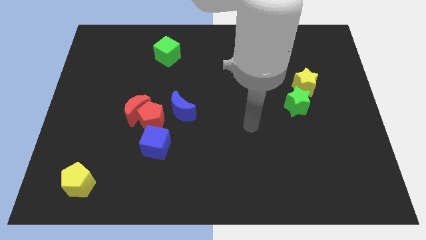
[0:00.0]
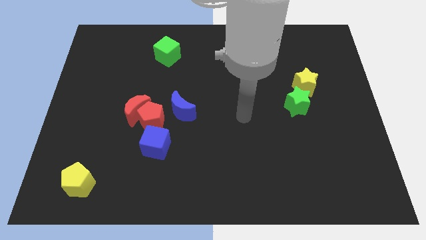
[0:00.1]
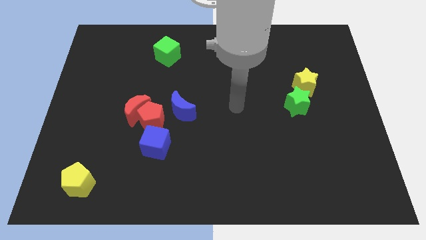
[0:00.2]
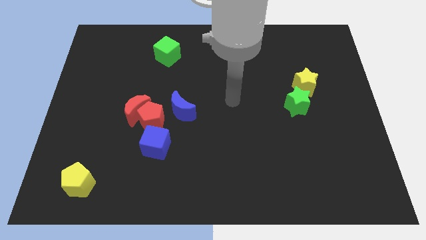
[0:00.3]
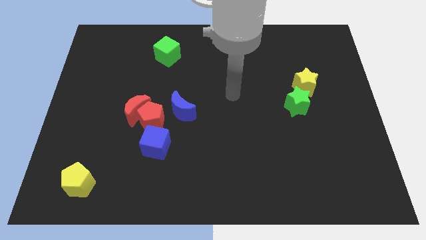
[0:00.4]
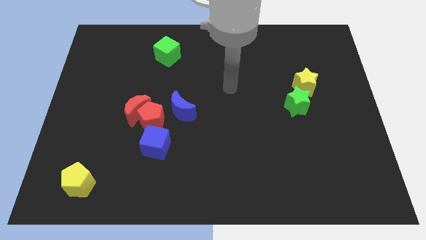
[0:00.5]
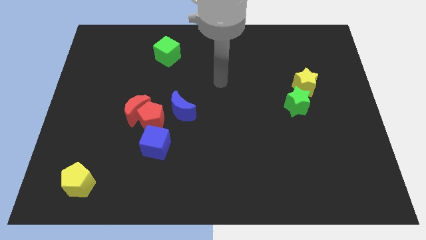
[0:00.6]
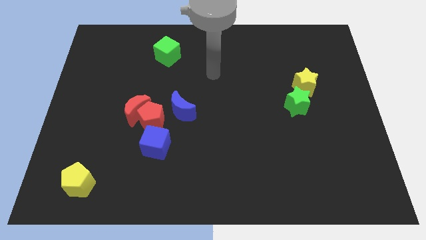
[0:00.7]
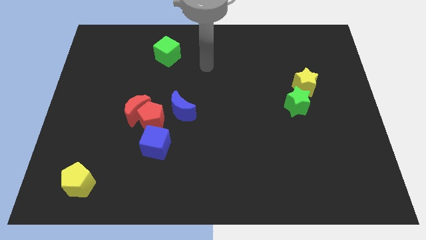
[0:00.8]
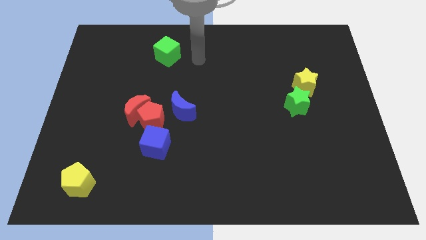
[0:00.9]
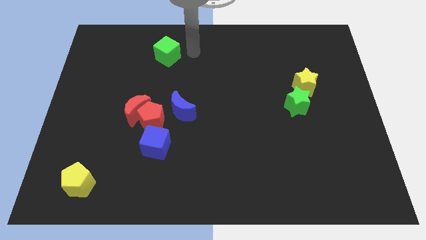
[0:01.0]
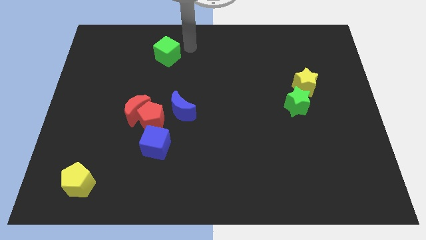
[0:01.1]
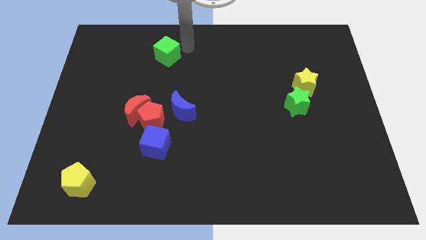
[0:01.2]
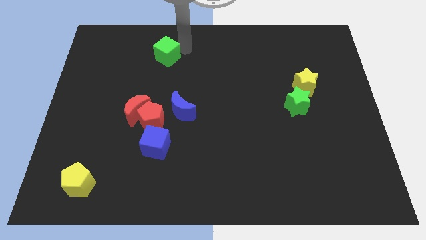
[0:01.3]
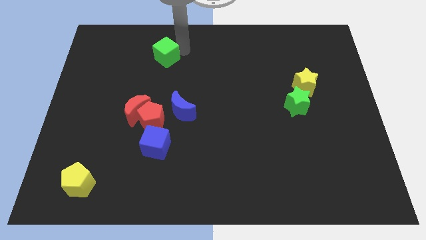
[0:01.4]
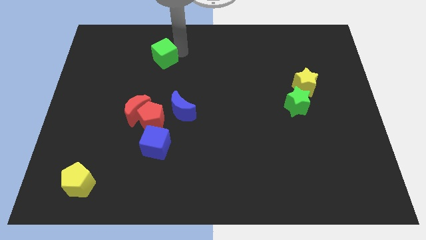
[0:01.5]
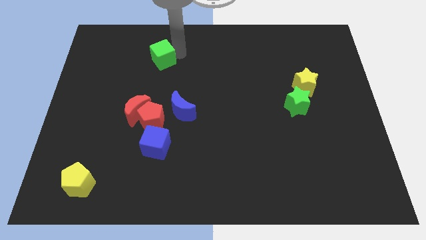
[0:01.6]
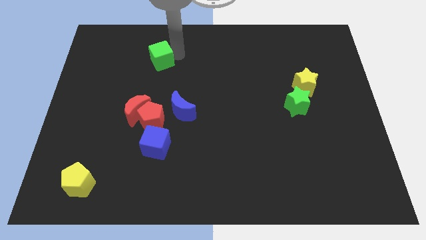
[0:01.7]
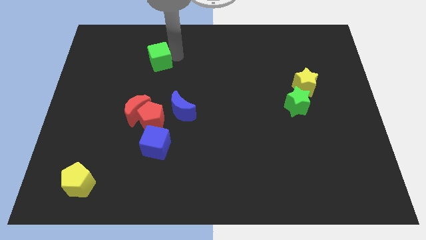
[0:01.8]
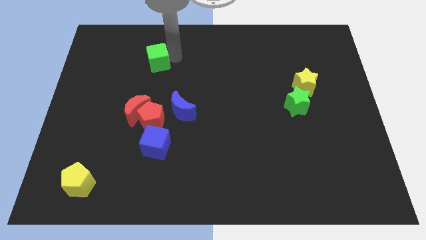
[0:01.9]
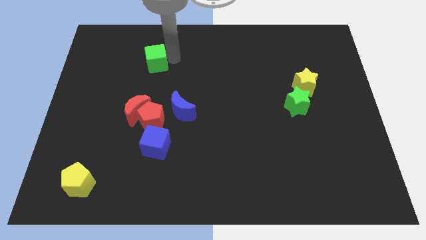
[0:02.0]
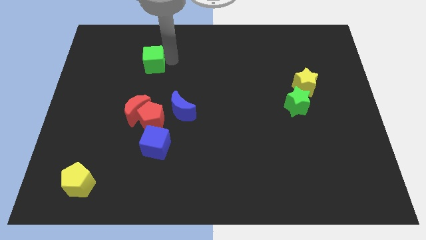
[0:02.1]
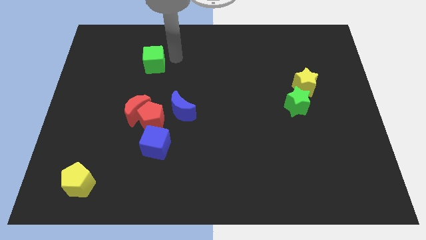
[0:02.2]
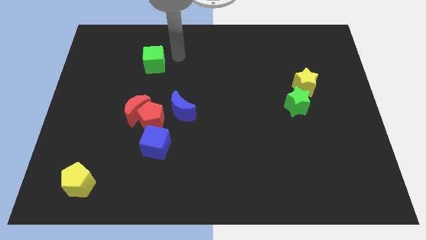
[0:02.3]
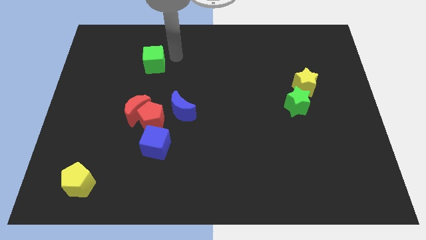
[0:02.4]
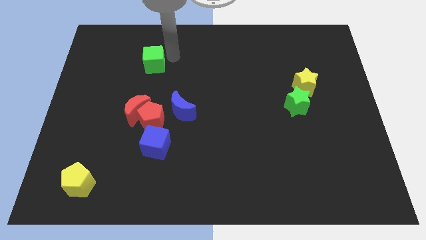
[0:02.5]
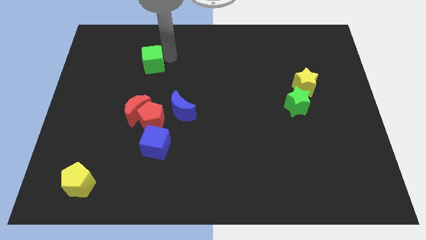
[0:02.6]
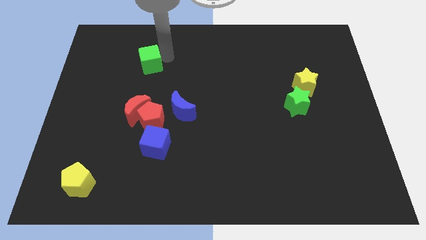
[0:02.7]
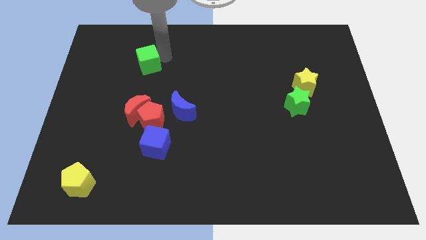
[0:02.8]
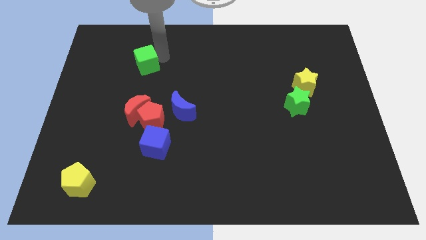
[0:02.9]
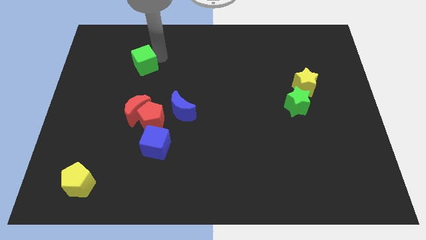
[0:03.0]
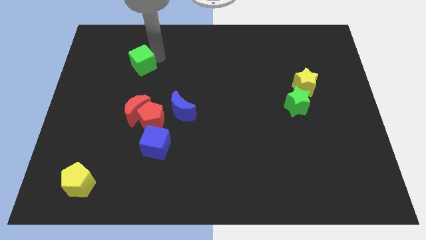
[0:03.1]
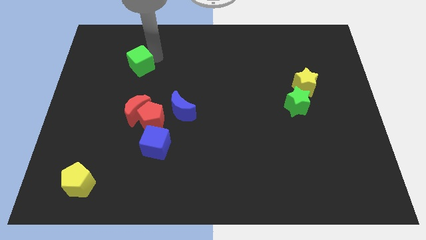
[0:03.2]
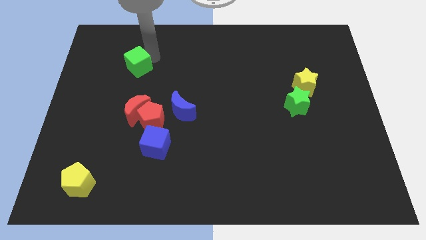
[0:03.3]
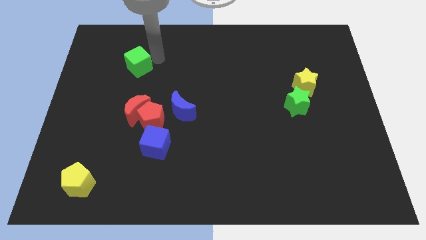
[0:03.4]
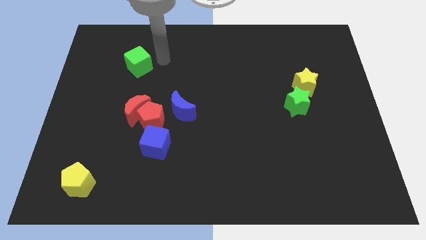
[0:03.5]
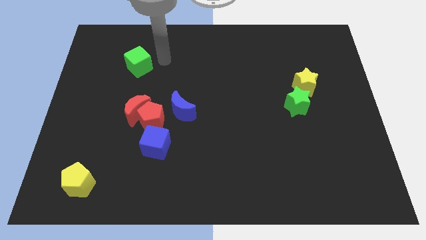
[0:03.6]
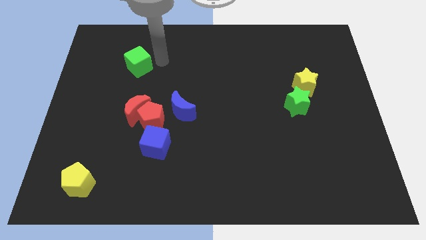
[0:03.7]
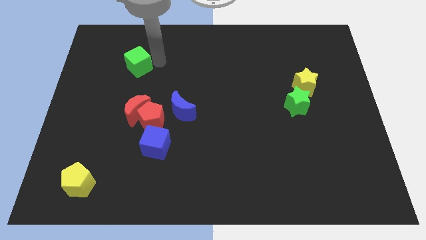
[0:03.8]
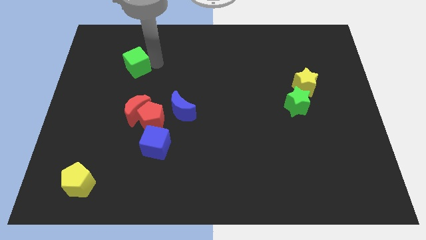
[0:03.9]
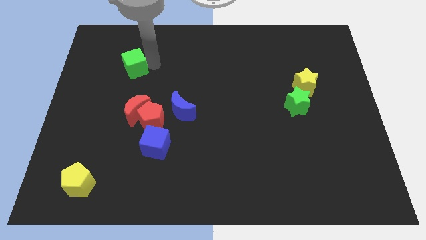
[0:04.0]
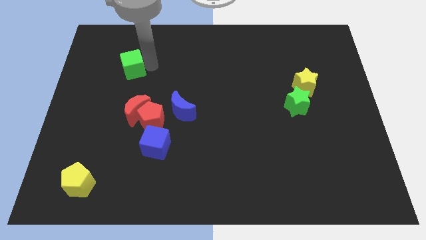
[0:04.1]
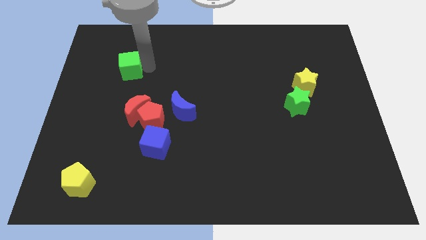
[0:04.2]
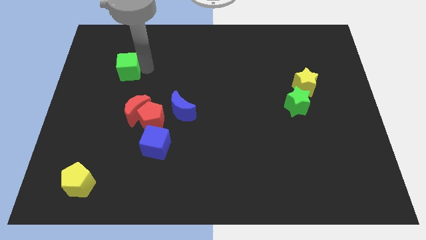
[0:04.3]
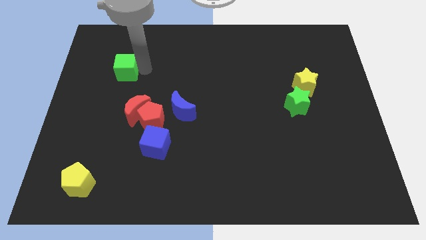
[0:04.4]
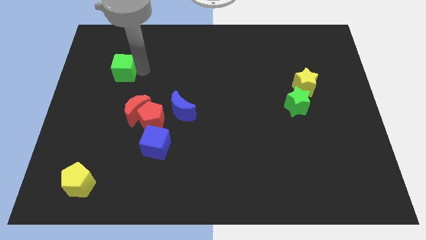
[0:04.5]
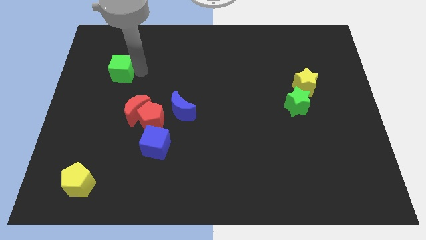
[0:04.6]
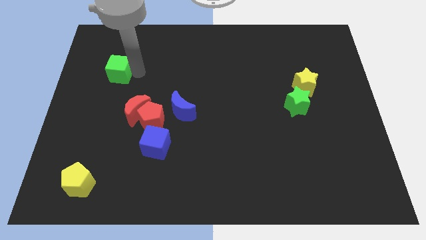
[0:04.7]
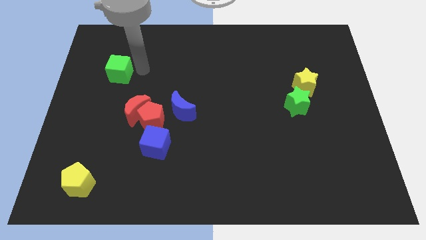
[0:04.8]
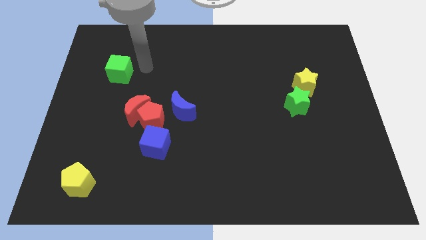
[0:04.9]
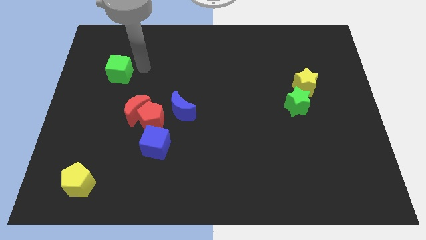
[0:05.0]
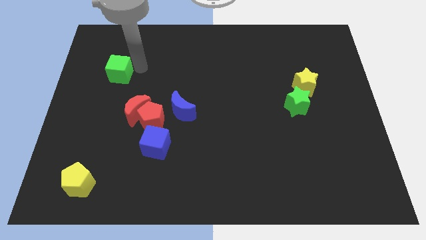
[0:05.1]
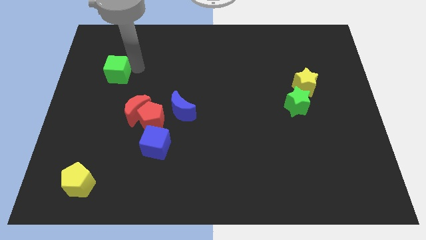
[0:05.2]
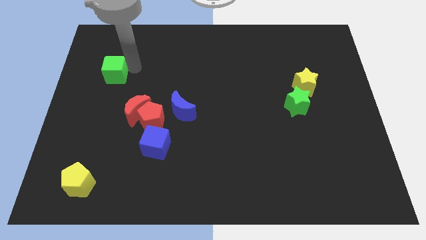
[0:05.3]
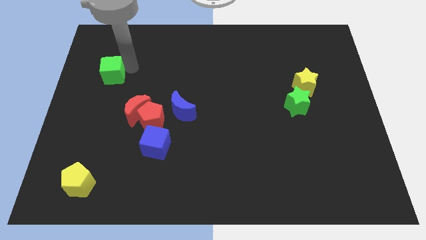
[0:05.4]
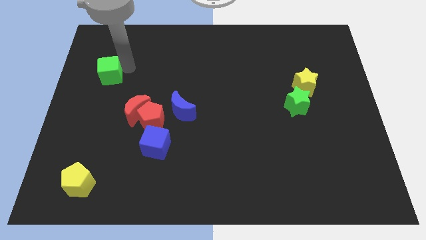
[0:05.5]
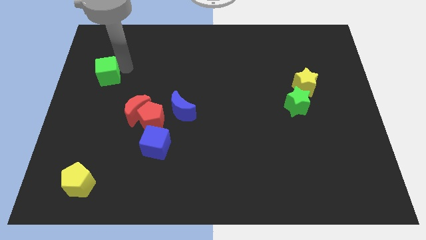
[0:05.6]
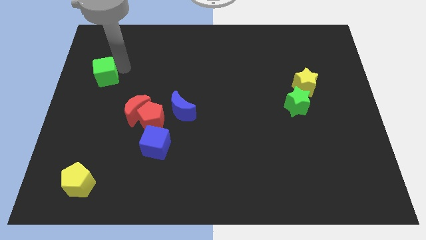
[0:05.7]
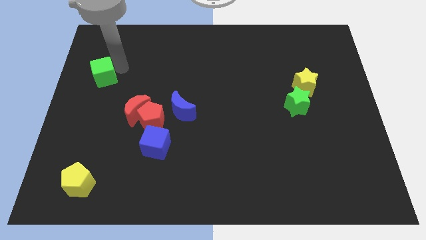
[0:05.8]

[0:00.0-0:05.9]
move the green cube to the left side of the board

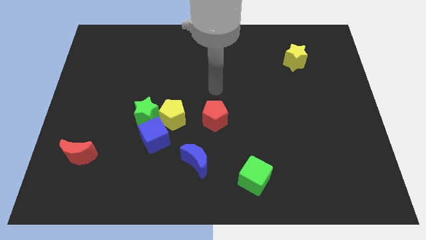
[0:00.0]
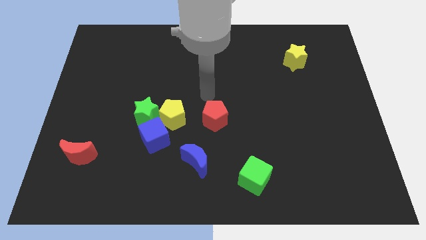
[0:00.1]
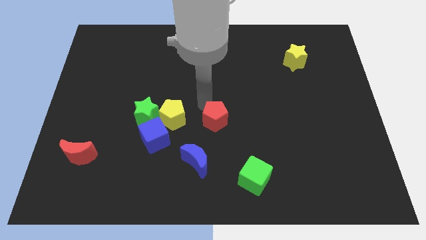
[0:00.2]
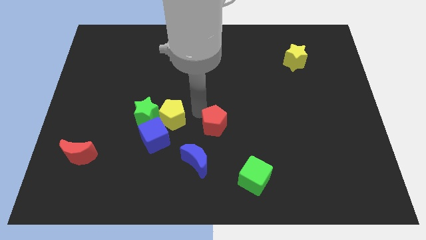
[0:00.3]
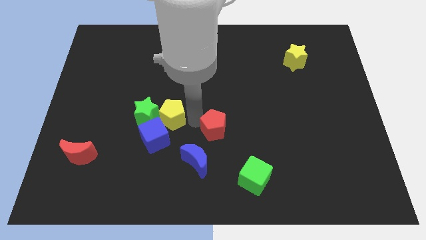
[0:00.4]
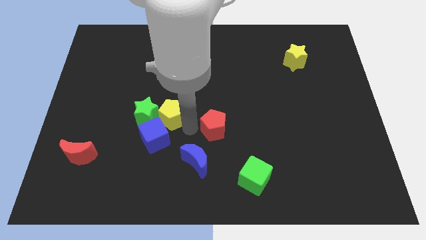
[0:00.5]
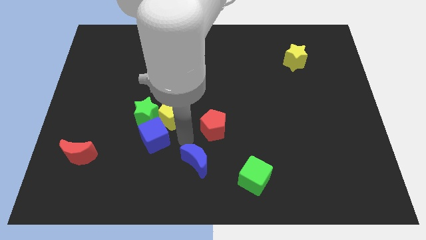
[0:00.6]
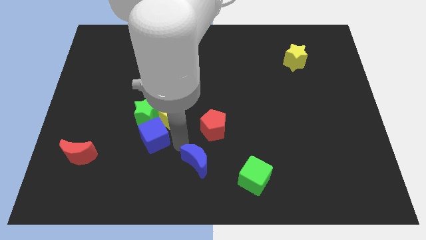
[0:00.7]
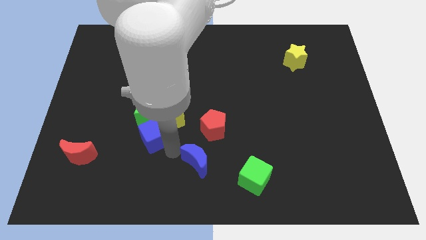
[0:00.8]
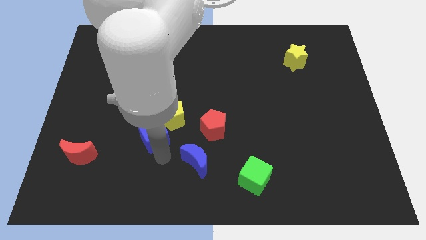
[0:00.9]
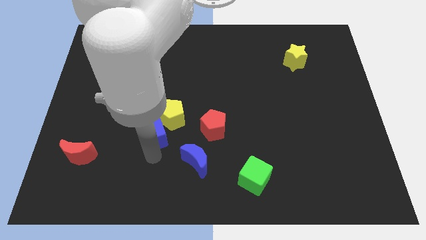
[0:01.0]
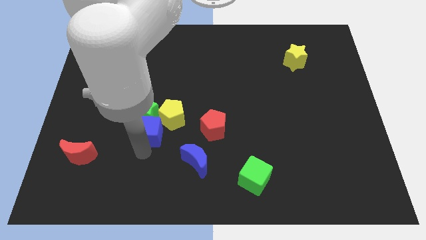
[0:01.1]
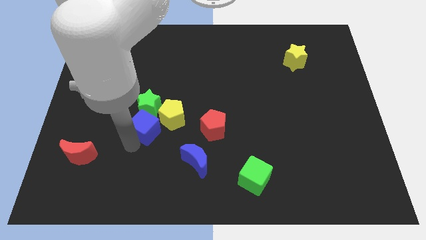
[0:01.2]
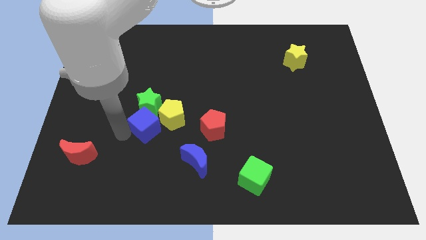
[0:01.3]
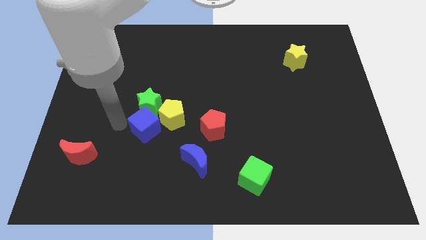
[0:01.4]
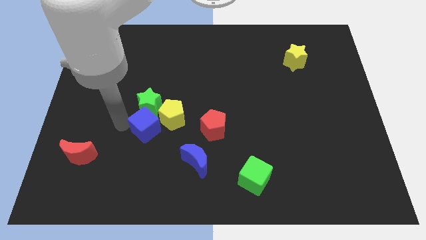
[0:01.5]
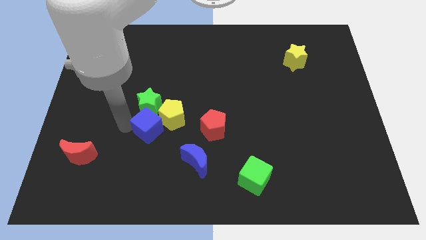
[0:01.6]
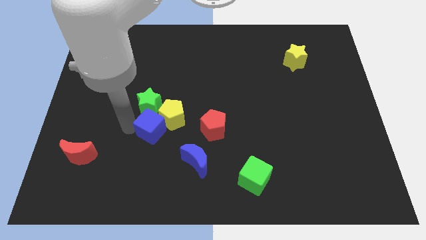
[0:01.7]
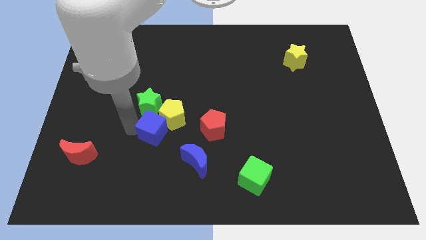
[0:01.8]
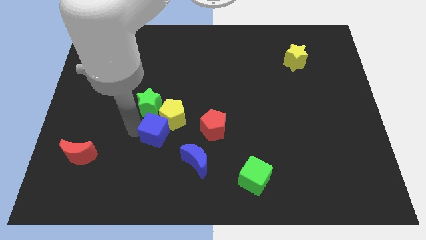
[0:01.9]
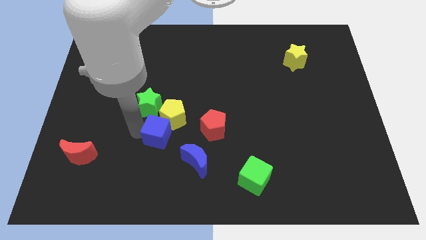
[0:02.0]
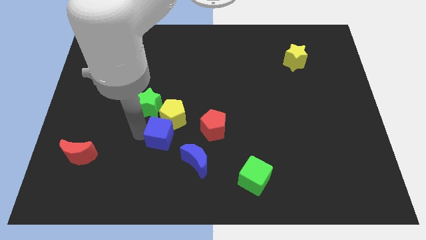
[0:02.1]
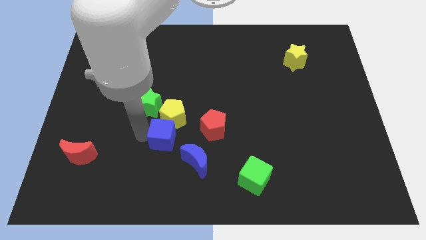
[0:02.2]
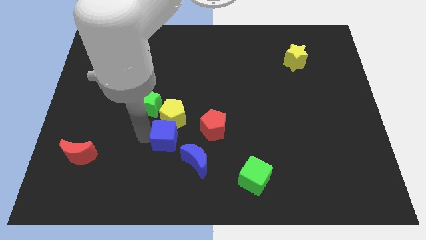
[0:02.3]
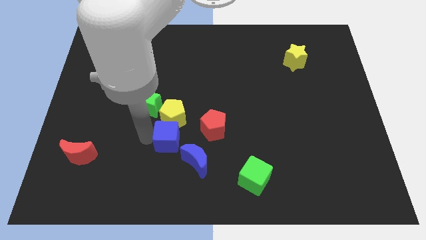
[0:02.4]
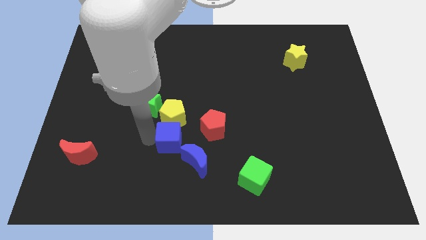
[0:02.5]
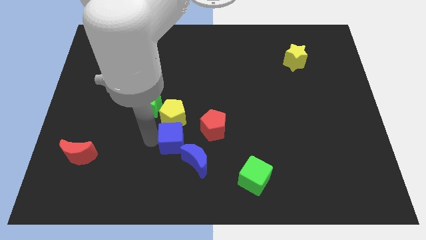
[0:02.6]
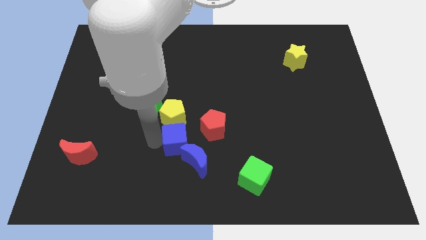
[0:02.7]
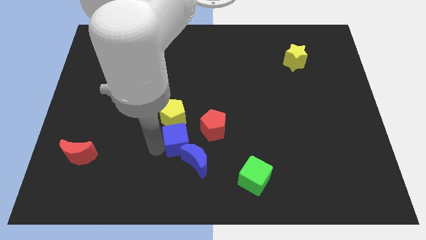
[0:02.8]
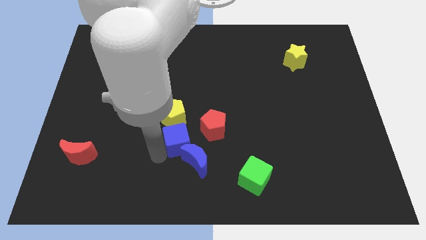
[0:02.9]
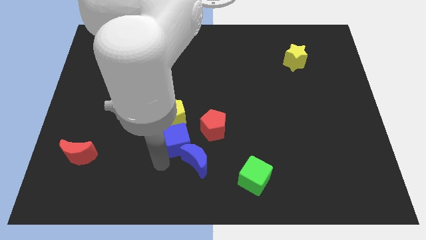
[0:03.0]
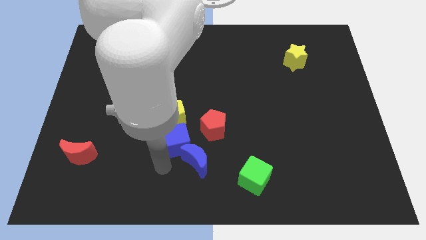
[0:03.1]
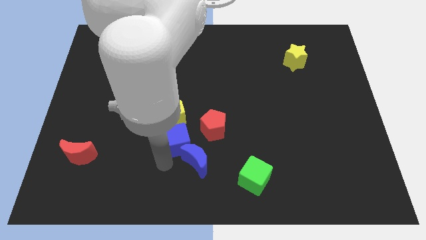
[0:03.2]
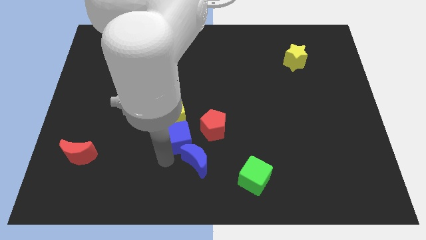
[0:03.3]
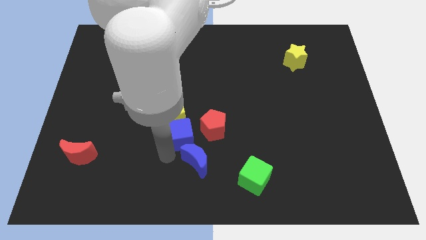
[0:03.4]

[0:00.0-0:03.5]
put the blue cube to the middle
